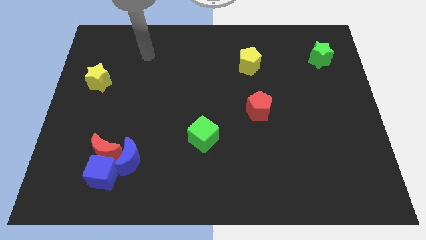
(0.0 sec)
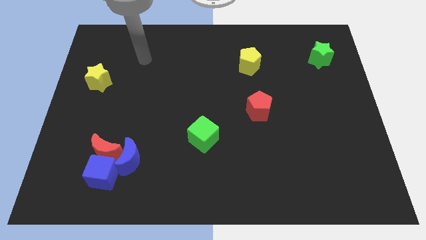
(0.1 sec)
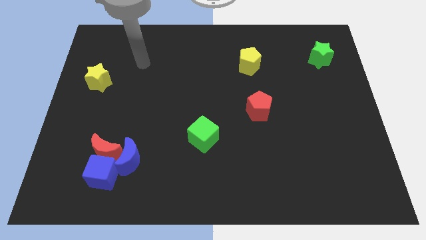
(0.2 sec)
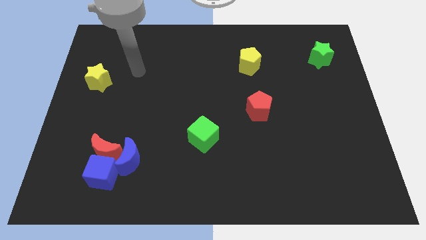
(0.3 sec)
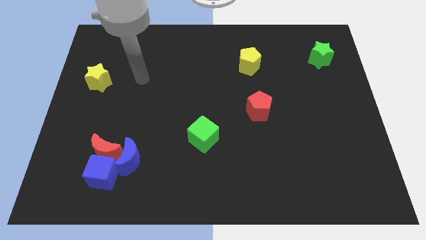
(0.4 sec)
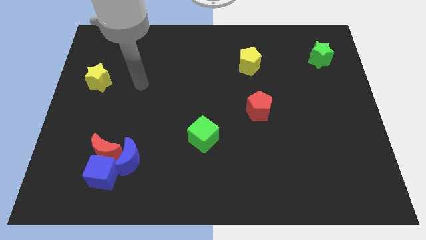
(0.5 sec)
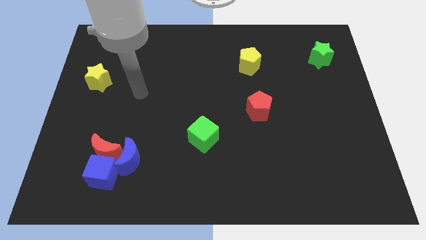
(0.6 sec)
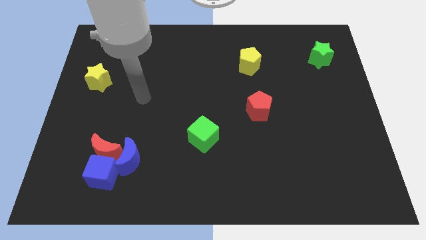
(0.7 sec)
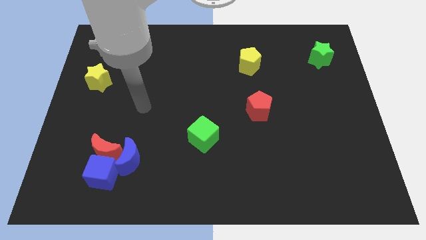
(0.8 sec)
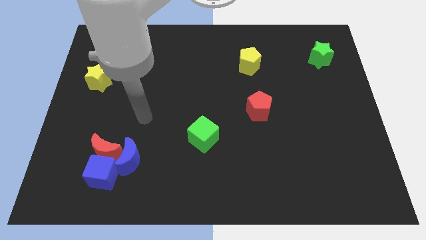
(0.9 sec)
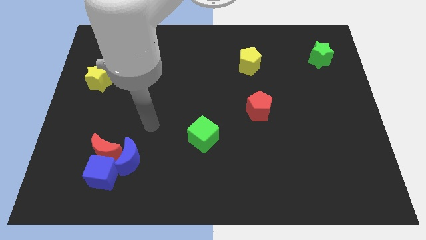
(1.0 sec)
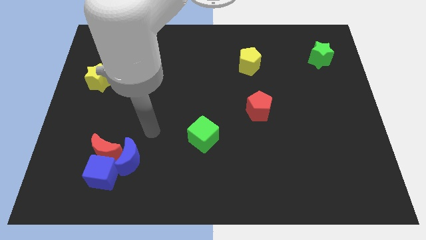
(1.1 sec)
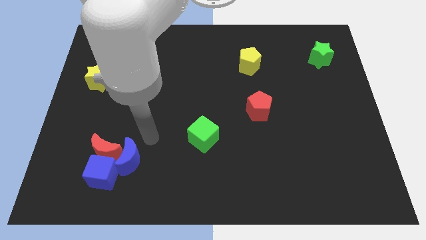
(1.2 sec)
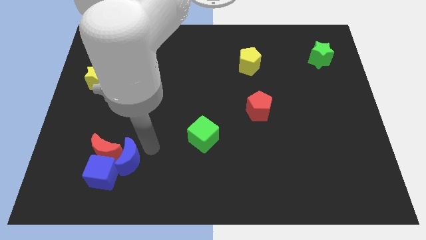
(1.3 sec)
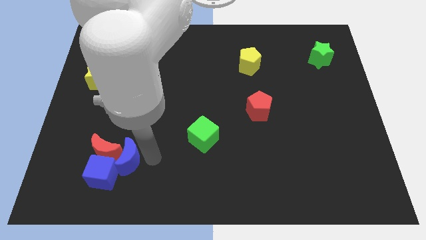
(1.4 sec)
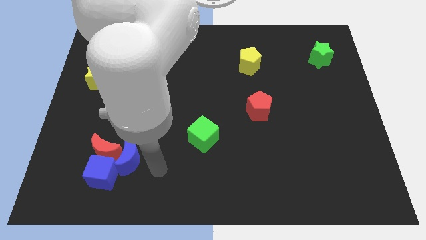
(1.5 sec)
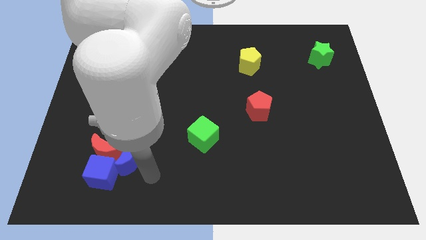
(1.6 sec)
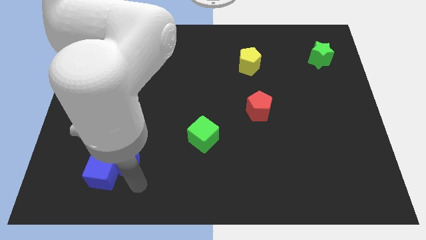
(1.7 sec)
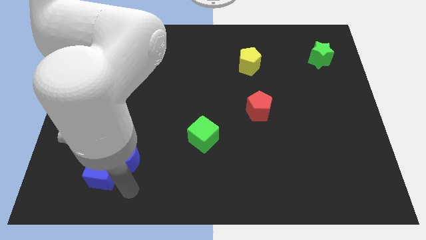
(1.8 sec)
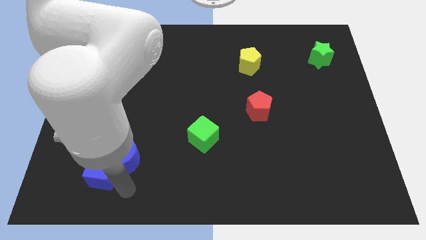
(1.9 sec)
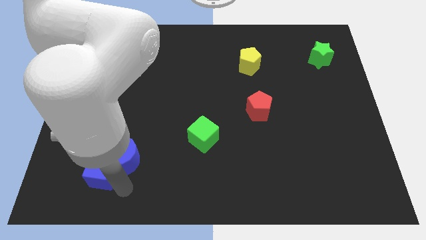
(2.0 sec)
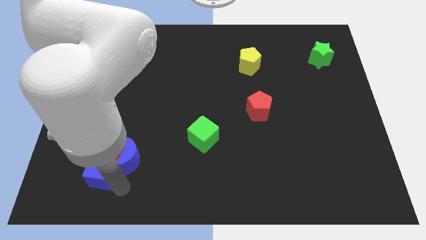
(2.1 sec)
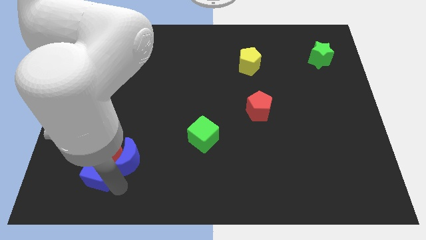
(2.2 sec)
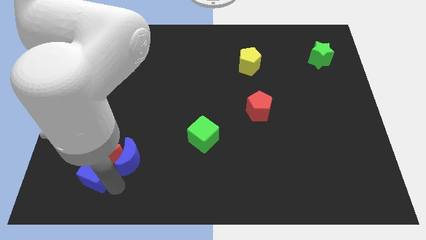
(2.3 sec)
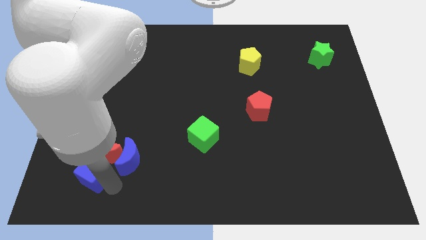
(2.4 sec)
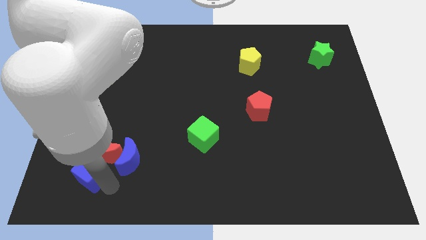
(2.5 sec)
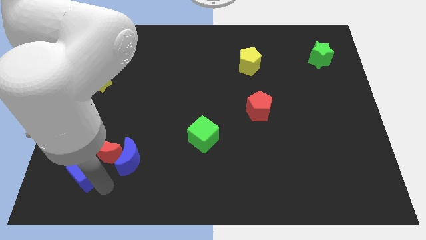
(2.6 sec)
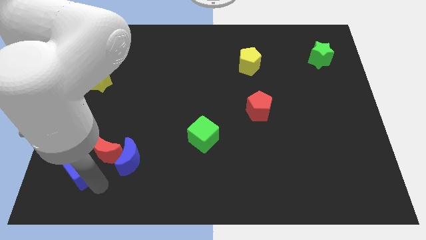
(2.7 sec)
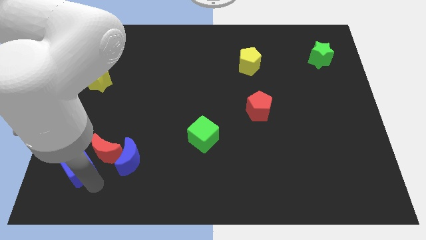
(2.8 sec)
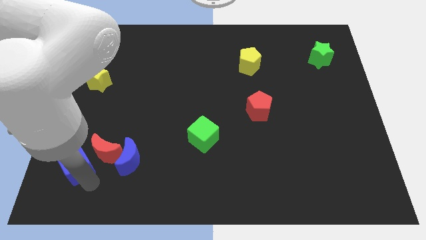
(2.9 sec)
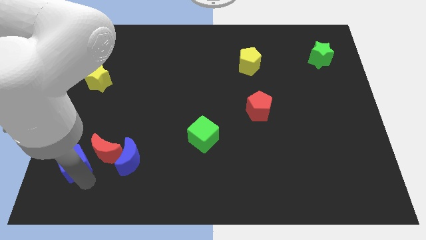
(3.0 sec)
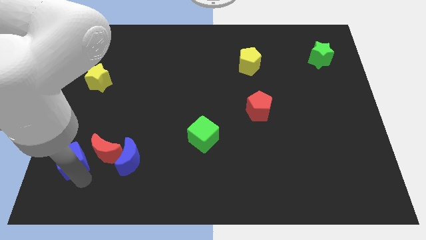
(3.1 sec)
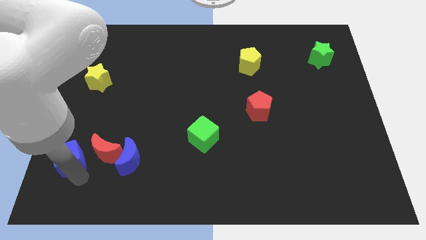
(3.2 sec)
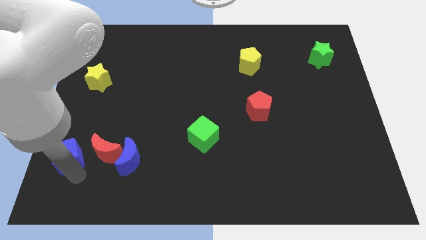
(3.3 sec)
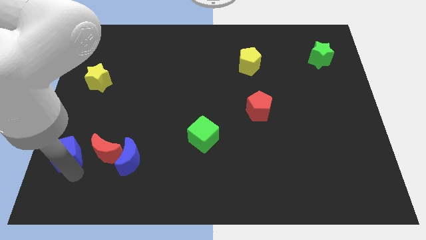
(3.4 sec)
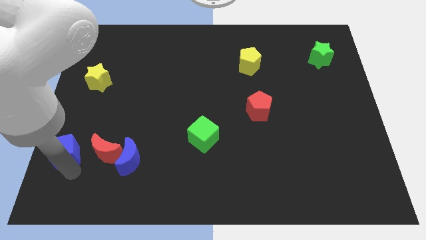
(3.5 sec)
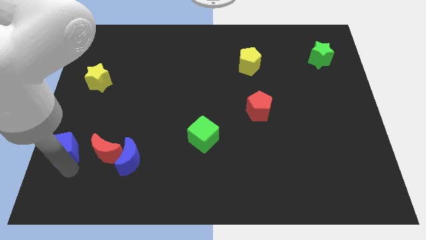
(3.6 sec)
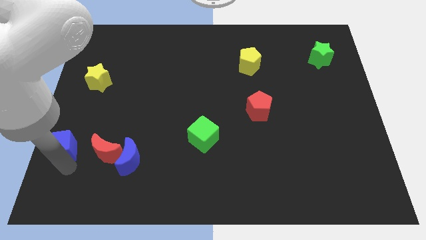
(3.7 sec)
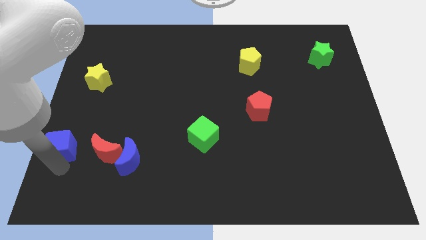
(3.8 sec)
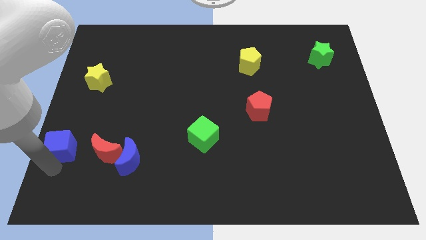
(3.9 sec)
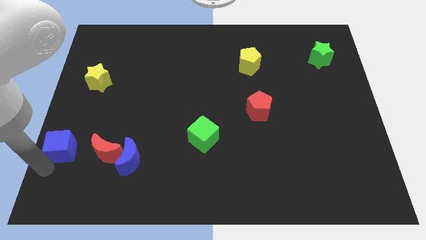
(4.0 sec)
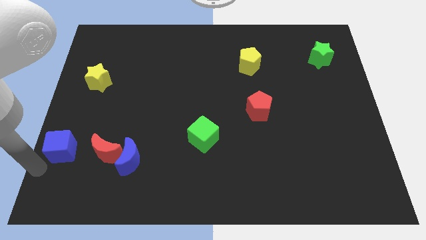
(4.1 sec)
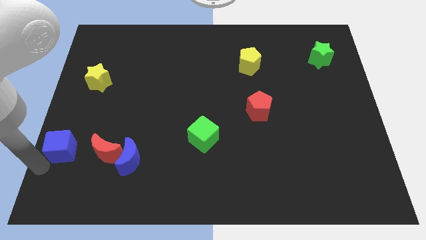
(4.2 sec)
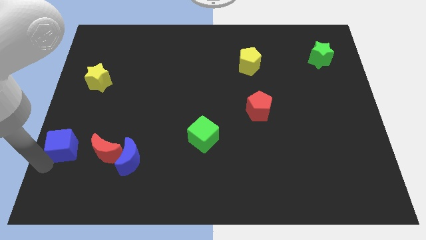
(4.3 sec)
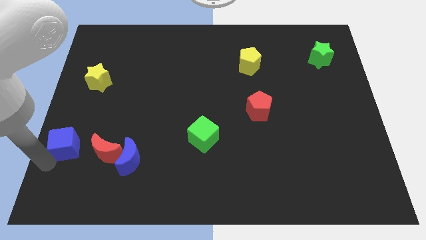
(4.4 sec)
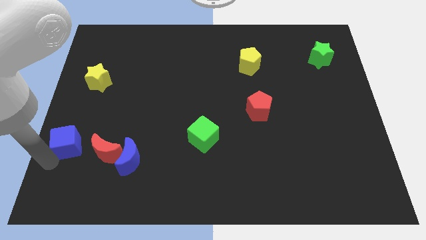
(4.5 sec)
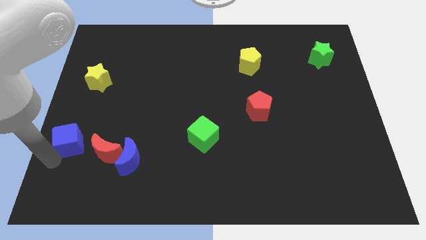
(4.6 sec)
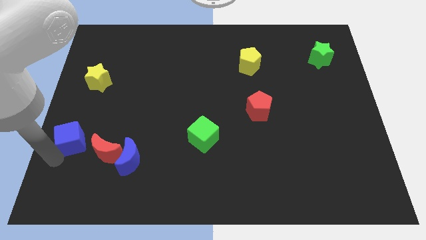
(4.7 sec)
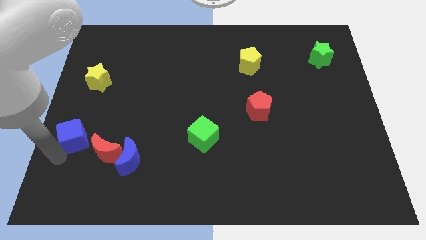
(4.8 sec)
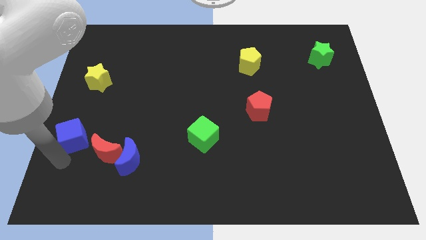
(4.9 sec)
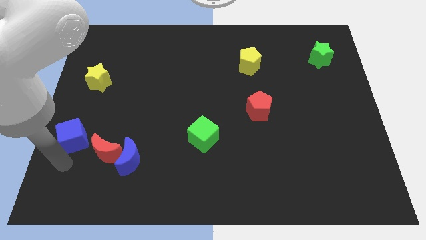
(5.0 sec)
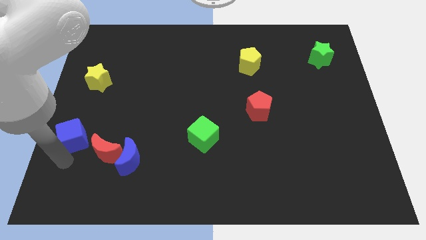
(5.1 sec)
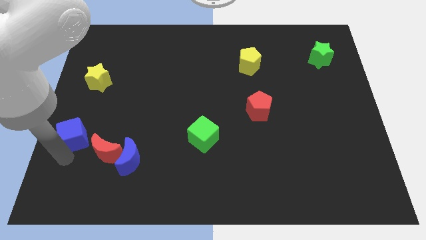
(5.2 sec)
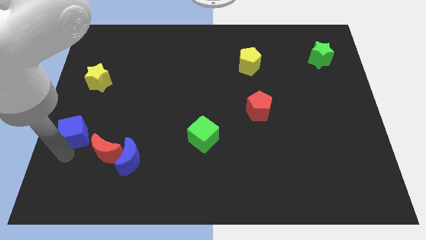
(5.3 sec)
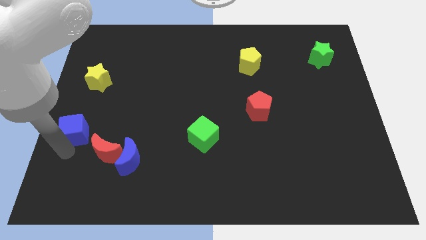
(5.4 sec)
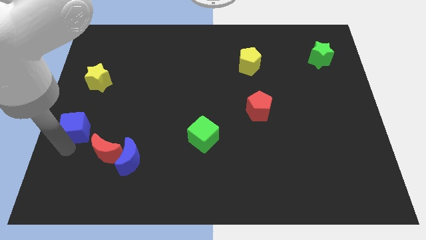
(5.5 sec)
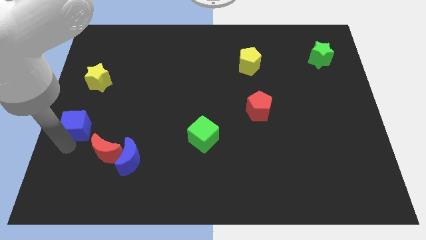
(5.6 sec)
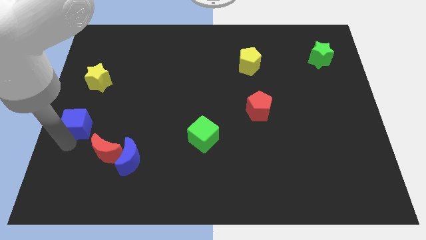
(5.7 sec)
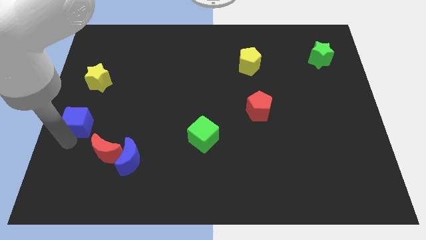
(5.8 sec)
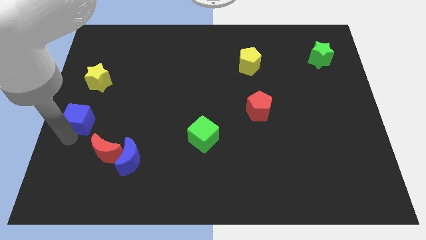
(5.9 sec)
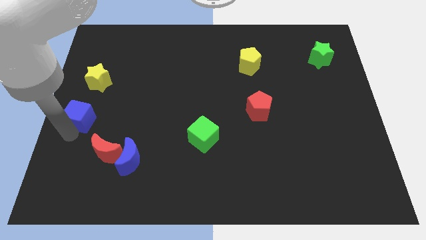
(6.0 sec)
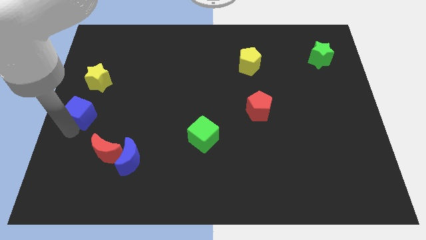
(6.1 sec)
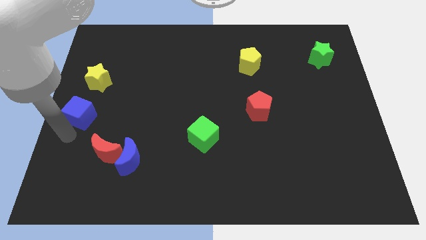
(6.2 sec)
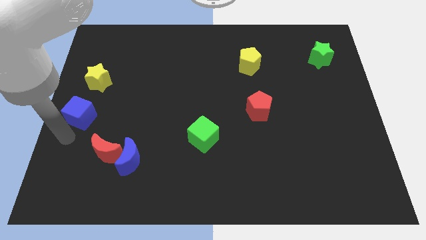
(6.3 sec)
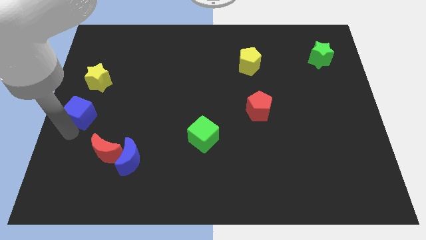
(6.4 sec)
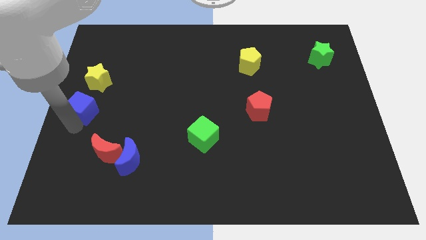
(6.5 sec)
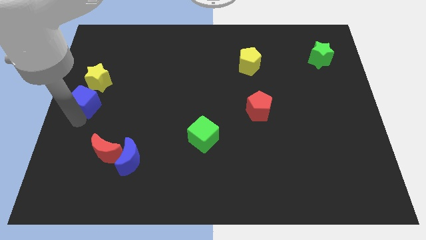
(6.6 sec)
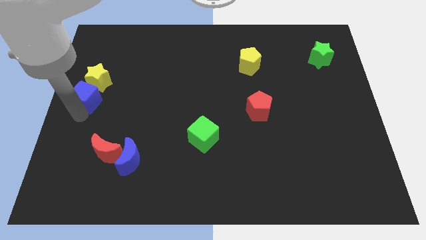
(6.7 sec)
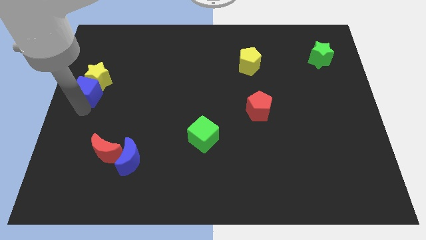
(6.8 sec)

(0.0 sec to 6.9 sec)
move the blue cube to the yellow star
